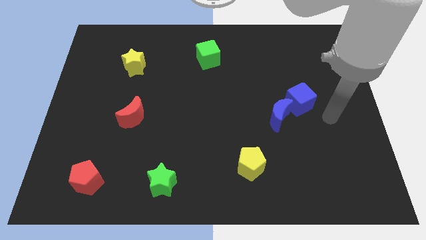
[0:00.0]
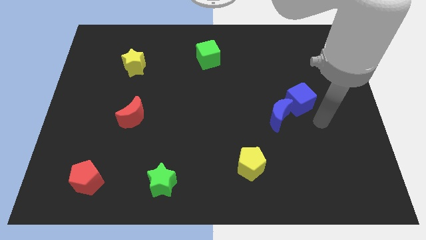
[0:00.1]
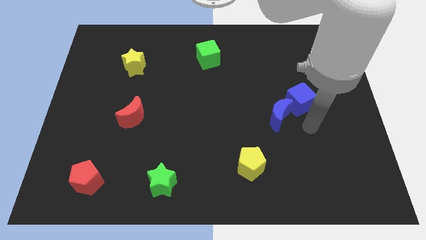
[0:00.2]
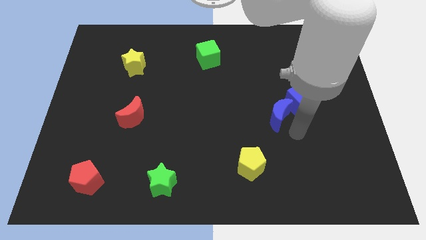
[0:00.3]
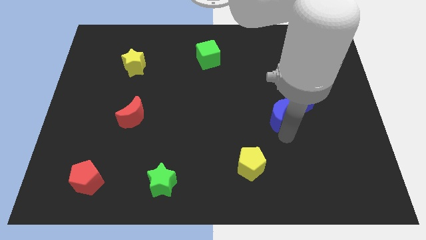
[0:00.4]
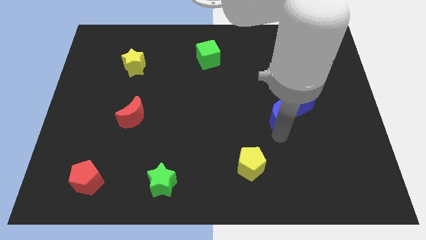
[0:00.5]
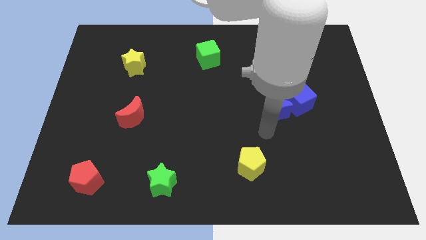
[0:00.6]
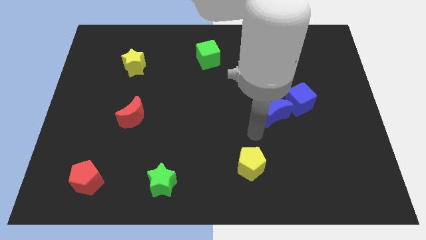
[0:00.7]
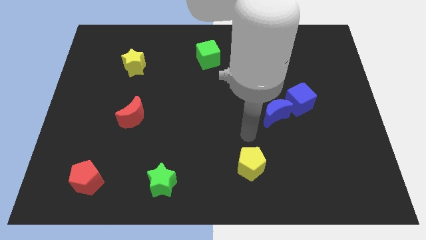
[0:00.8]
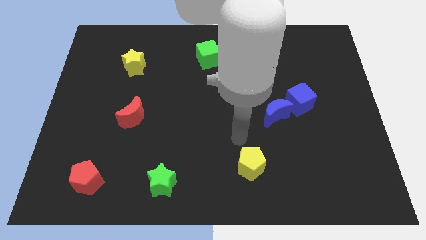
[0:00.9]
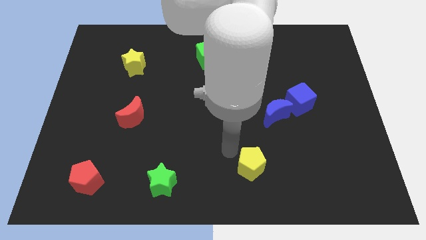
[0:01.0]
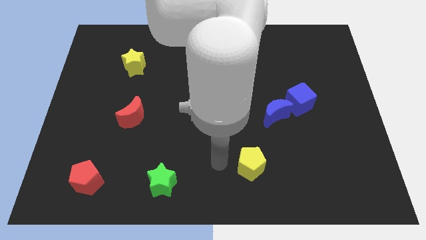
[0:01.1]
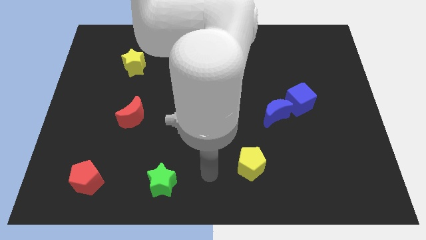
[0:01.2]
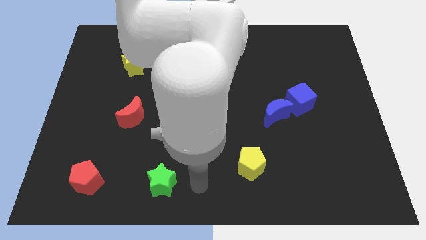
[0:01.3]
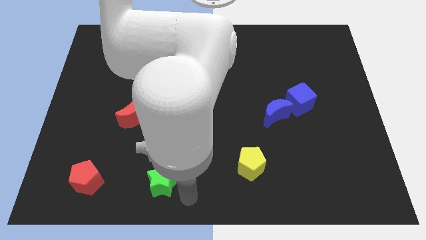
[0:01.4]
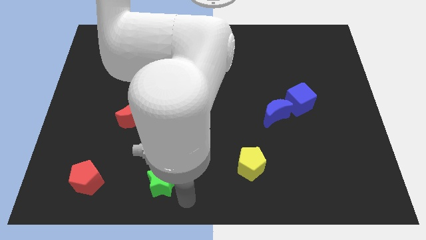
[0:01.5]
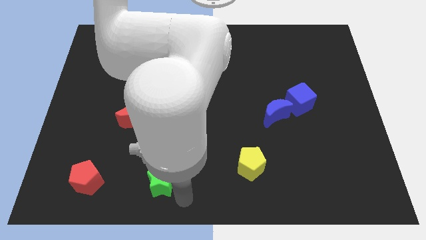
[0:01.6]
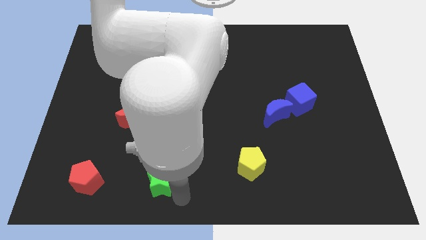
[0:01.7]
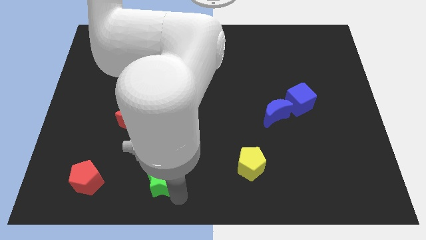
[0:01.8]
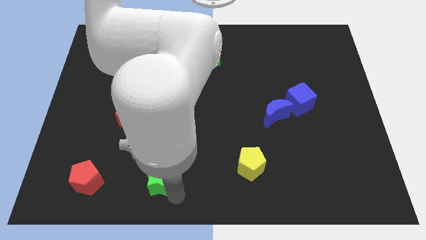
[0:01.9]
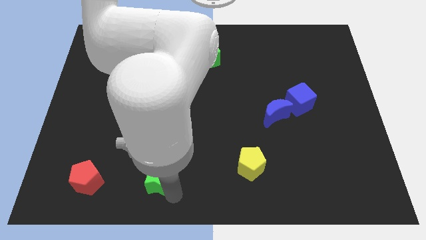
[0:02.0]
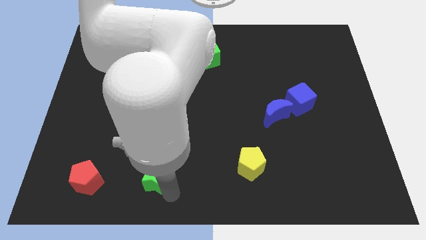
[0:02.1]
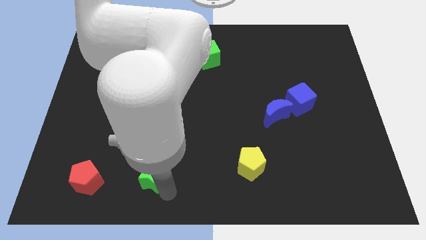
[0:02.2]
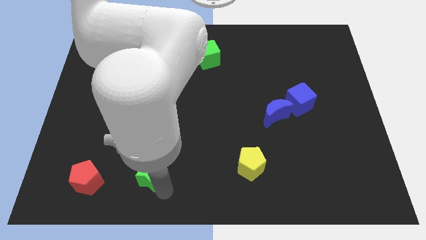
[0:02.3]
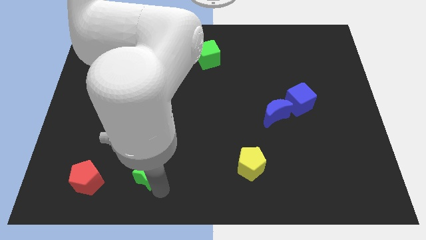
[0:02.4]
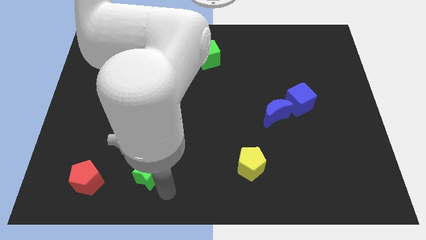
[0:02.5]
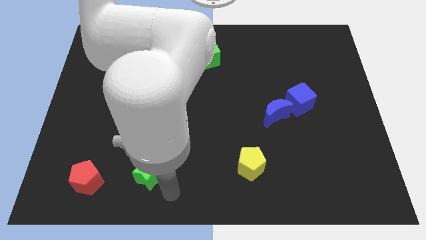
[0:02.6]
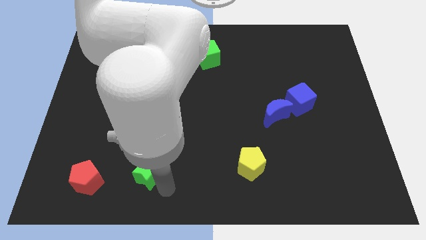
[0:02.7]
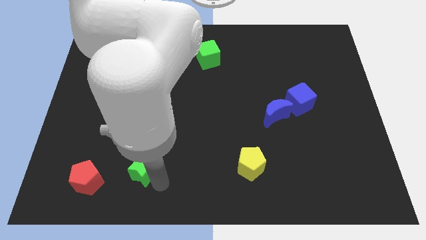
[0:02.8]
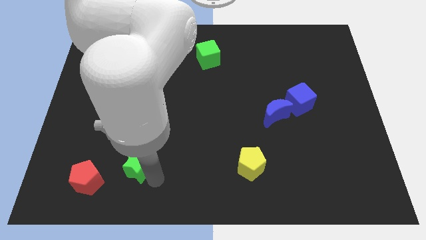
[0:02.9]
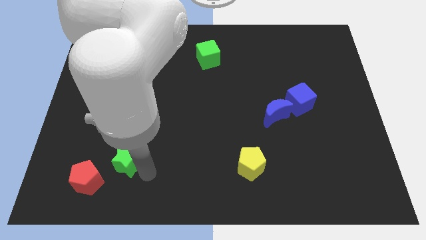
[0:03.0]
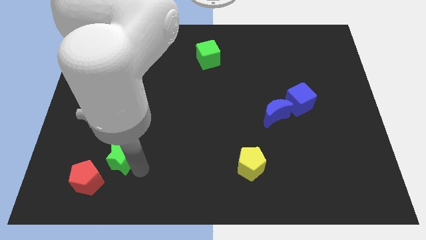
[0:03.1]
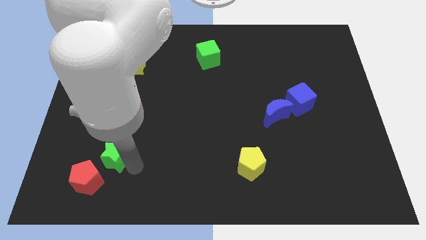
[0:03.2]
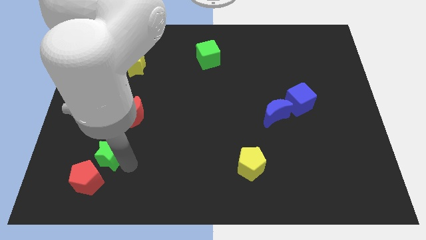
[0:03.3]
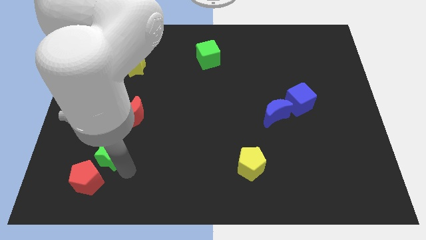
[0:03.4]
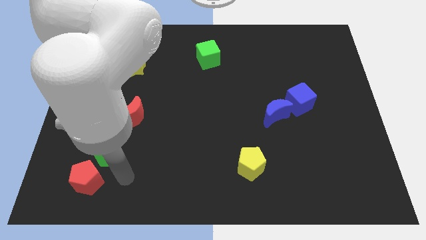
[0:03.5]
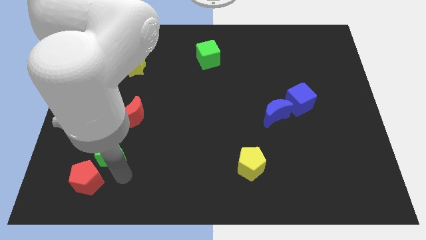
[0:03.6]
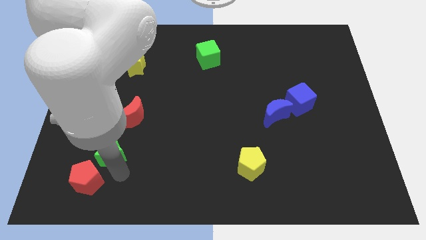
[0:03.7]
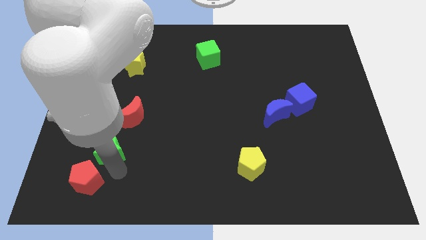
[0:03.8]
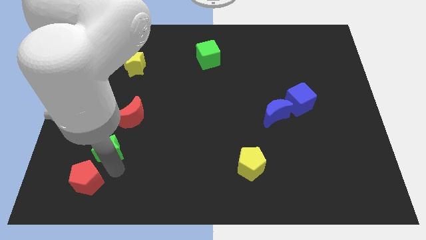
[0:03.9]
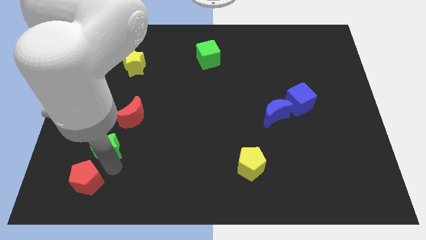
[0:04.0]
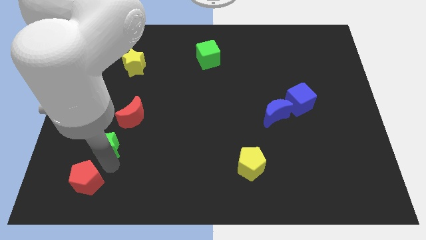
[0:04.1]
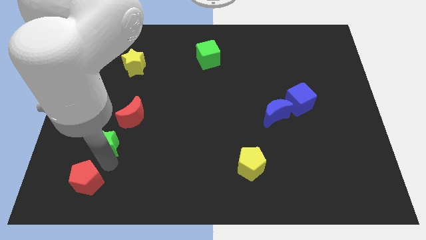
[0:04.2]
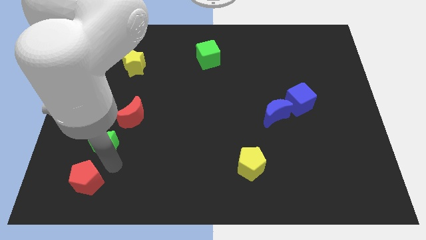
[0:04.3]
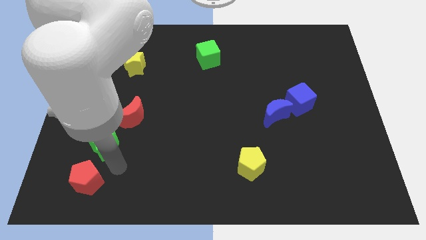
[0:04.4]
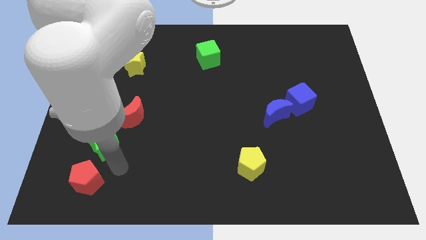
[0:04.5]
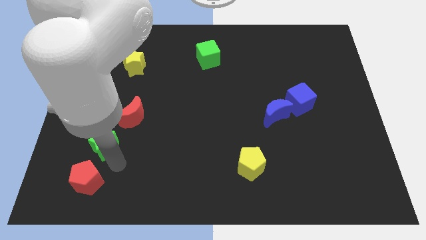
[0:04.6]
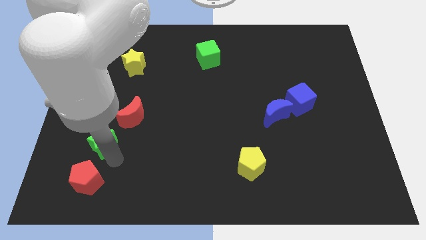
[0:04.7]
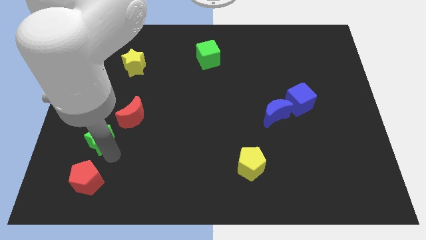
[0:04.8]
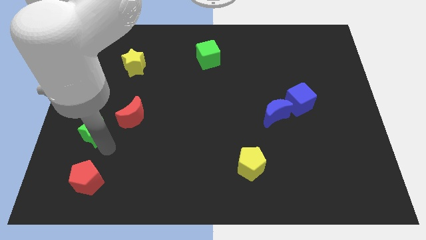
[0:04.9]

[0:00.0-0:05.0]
slide the green star left of the red moon

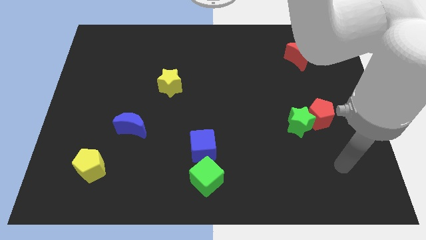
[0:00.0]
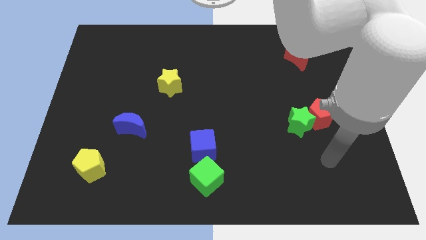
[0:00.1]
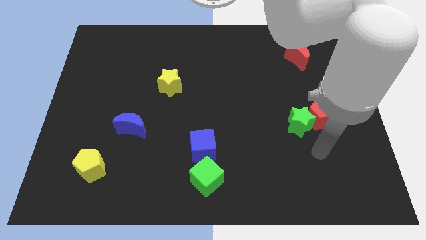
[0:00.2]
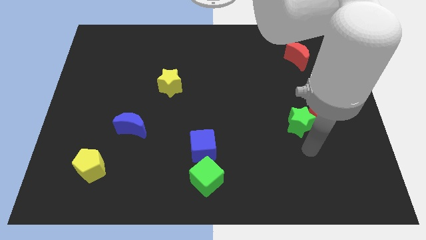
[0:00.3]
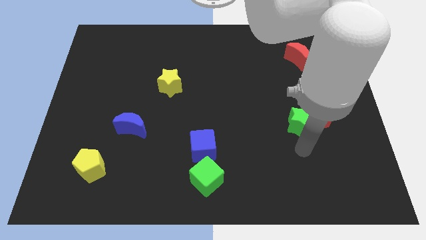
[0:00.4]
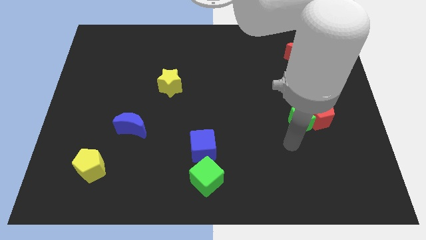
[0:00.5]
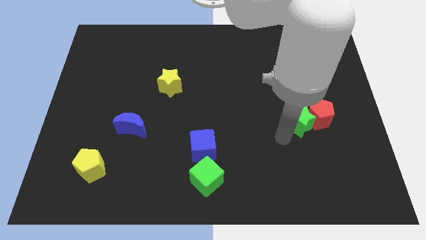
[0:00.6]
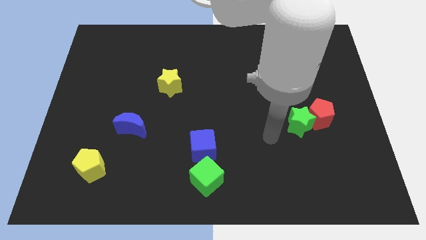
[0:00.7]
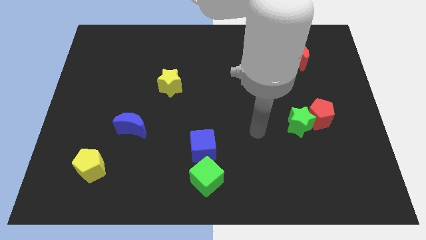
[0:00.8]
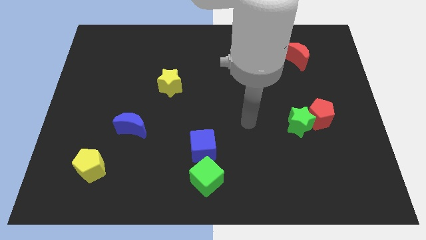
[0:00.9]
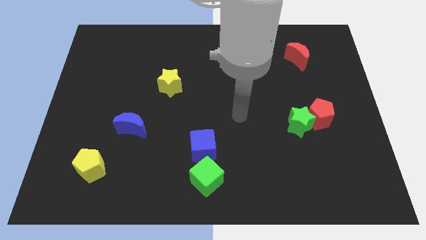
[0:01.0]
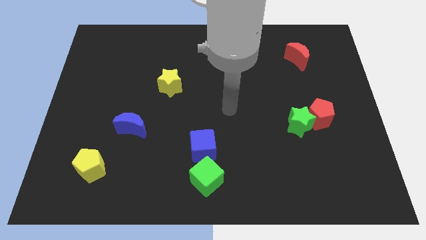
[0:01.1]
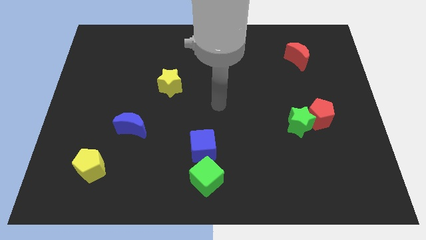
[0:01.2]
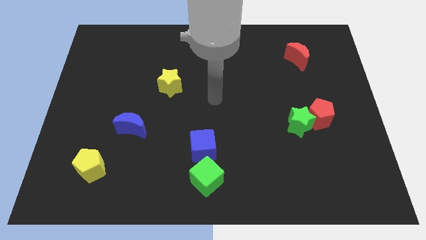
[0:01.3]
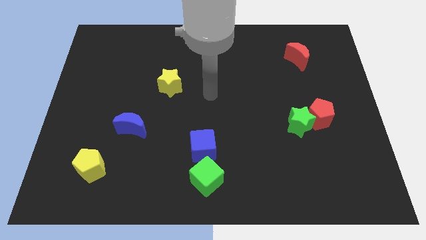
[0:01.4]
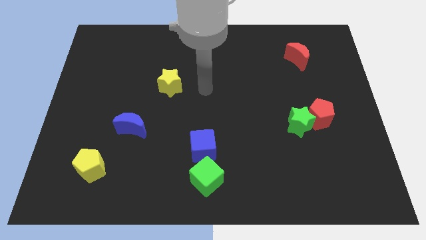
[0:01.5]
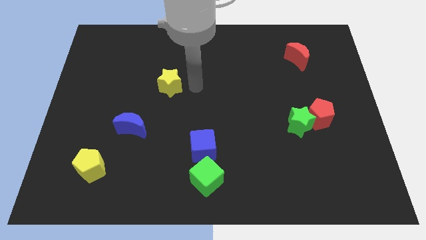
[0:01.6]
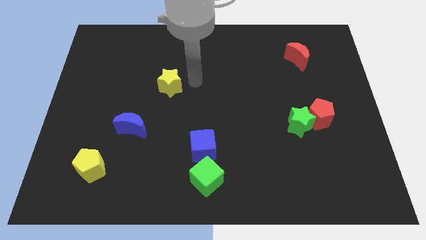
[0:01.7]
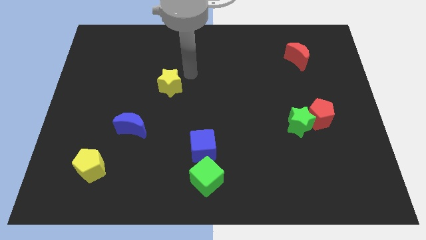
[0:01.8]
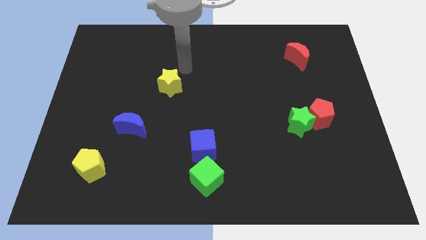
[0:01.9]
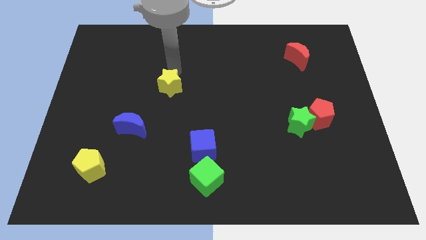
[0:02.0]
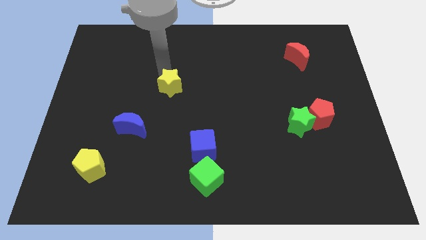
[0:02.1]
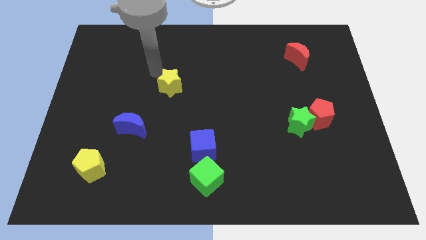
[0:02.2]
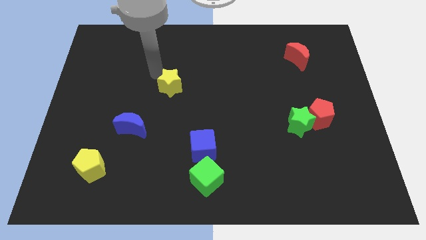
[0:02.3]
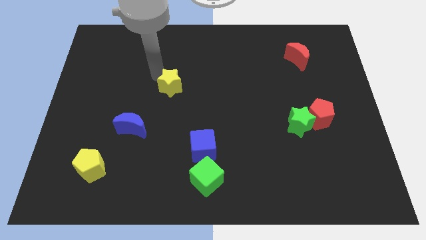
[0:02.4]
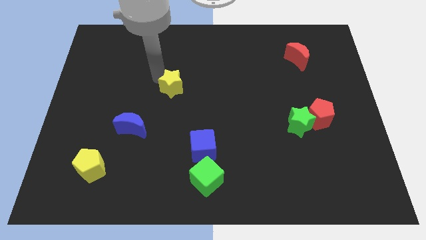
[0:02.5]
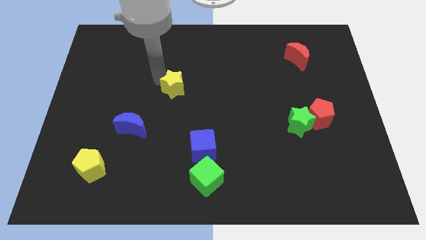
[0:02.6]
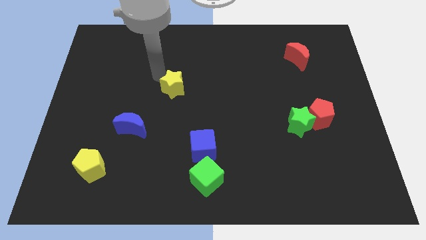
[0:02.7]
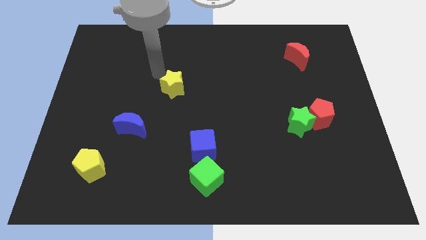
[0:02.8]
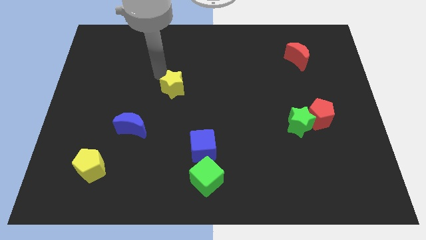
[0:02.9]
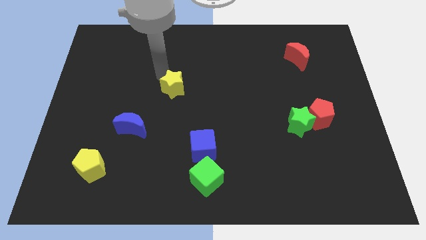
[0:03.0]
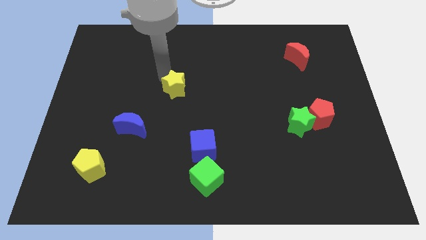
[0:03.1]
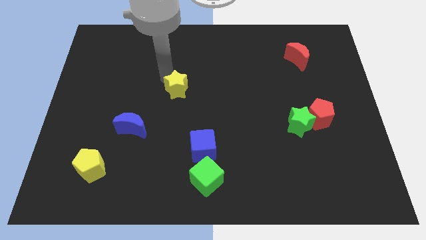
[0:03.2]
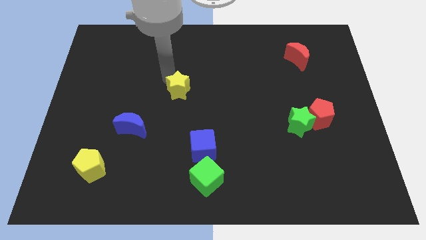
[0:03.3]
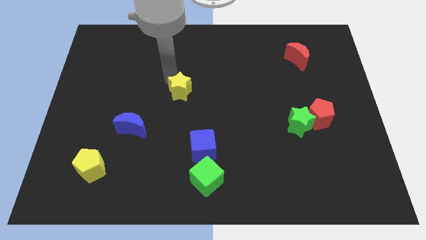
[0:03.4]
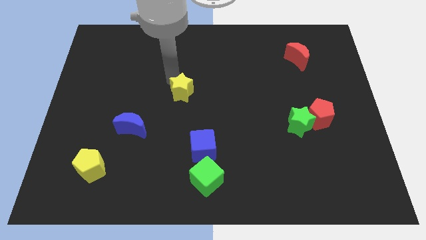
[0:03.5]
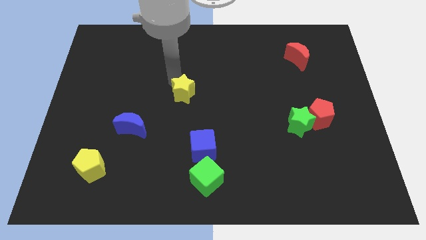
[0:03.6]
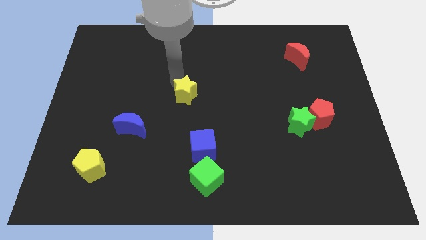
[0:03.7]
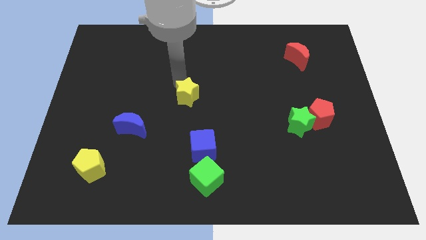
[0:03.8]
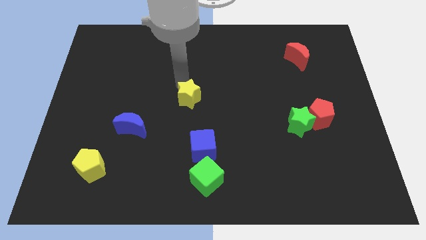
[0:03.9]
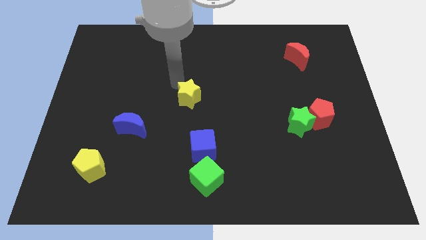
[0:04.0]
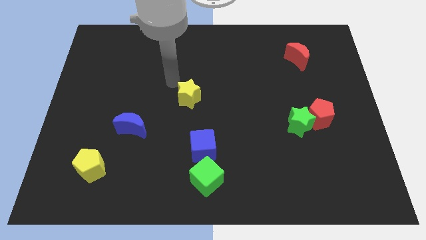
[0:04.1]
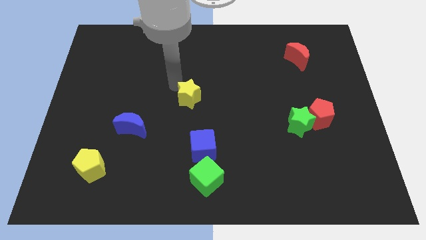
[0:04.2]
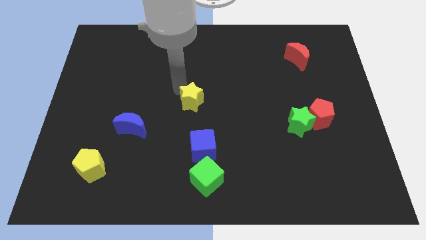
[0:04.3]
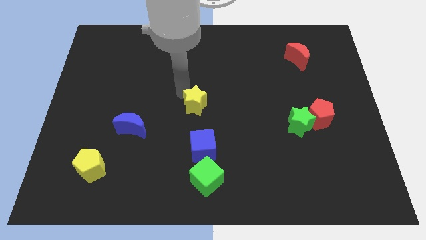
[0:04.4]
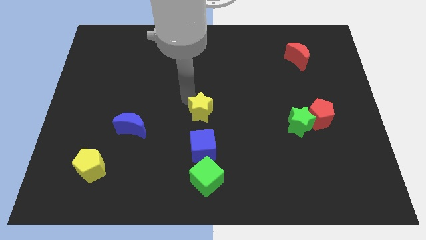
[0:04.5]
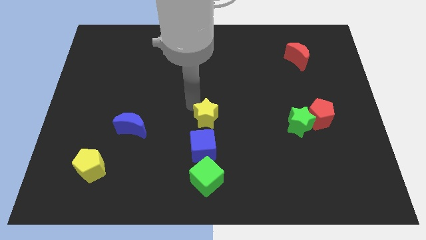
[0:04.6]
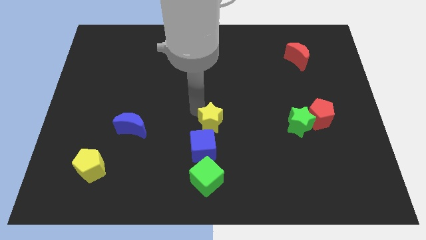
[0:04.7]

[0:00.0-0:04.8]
slide the yellow star diagonally up and to the right of the blue cube
